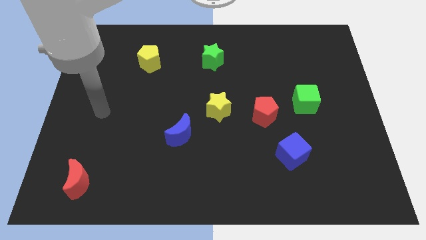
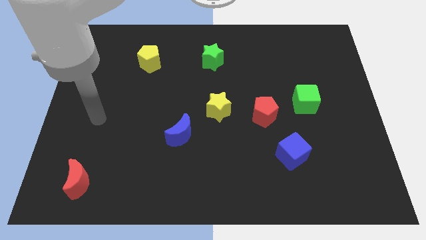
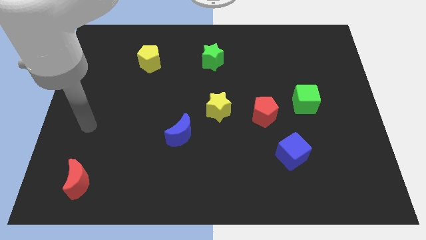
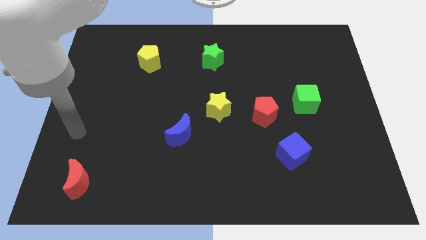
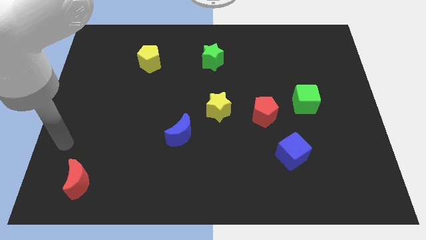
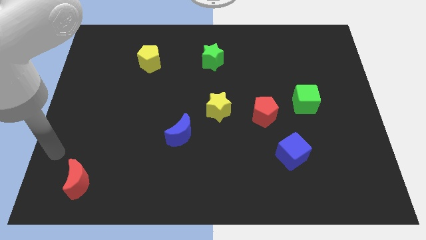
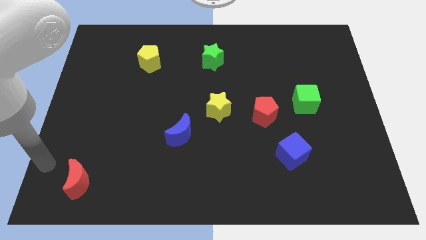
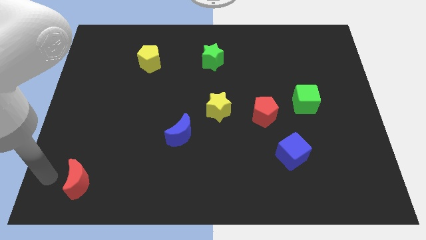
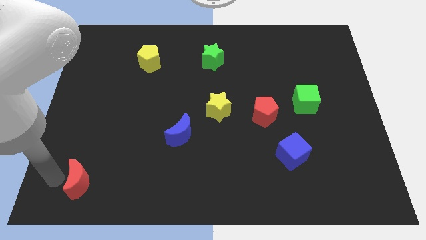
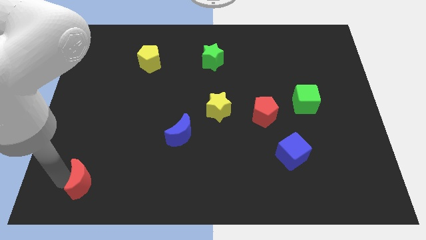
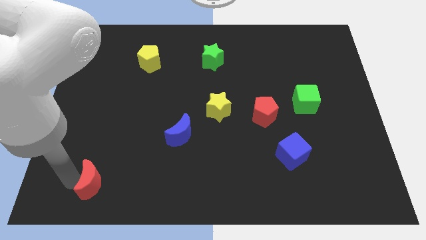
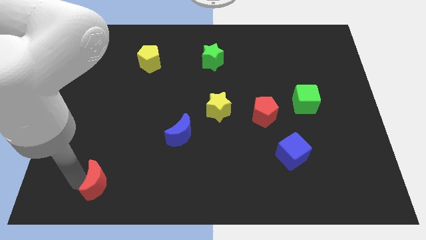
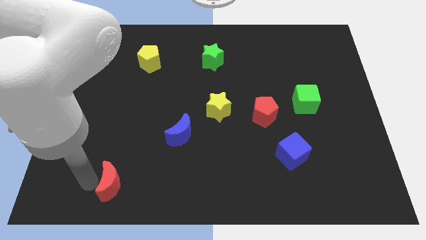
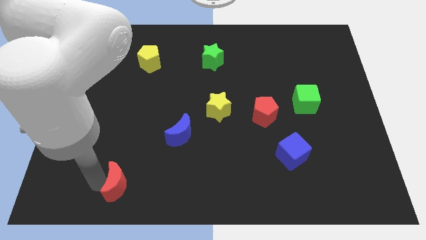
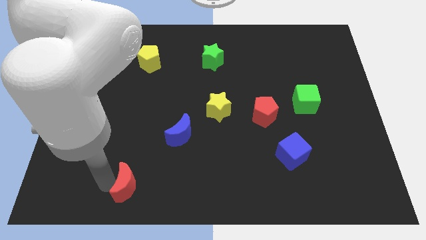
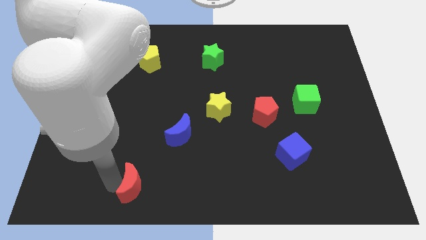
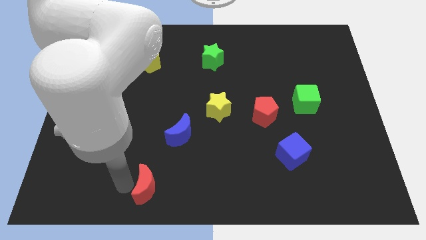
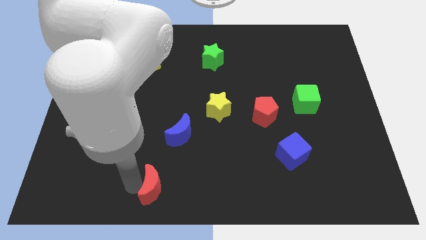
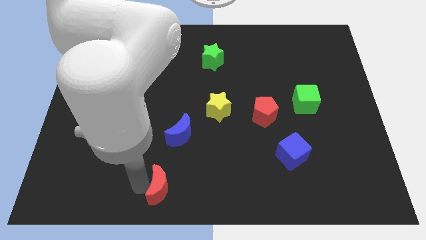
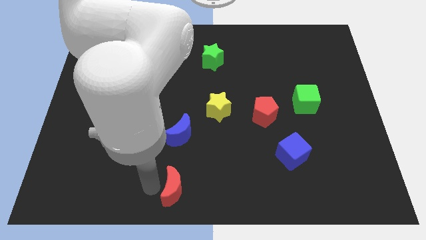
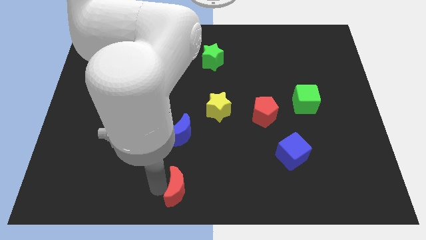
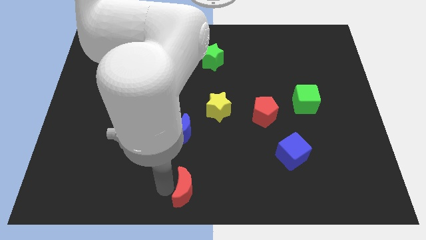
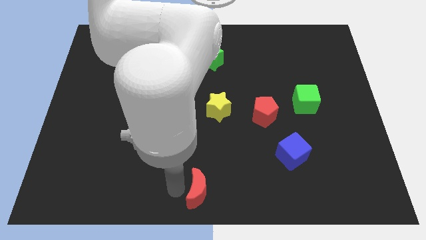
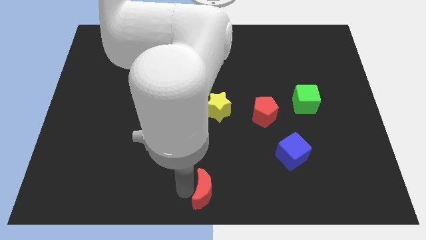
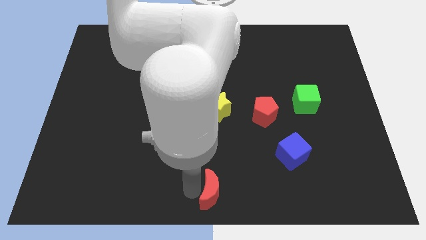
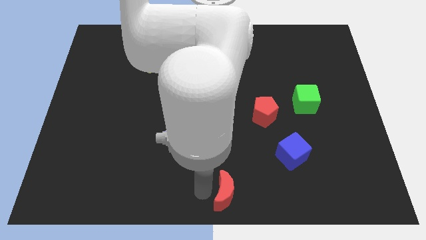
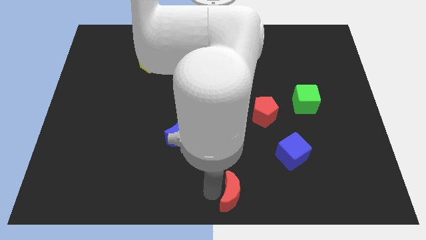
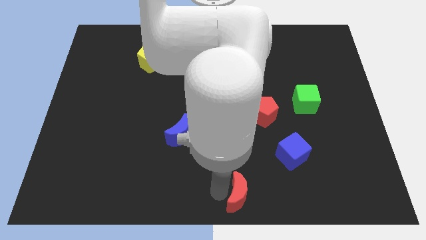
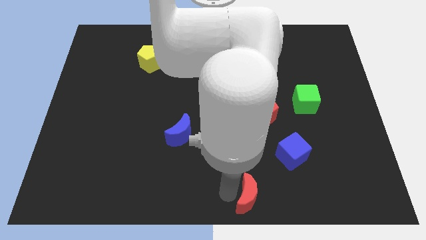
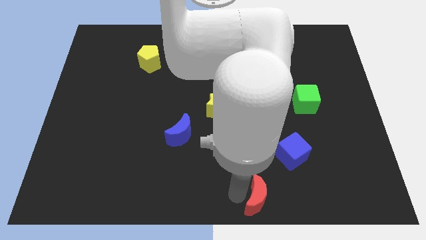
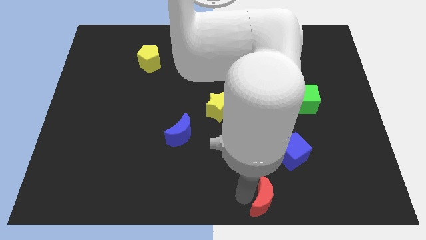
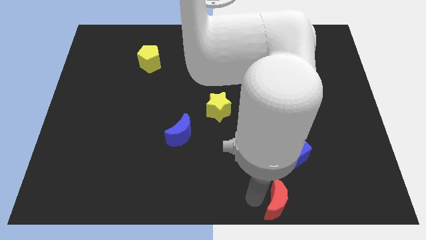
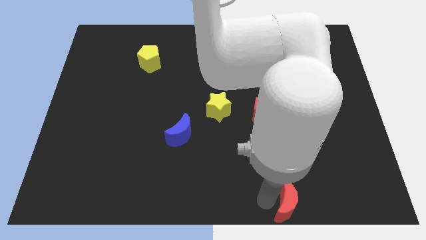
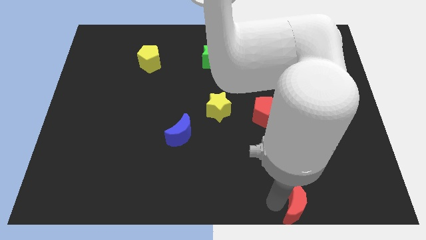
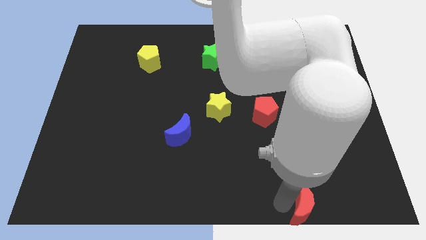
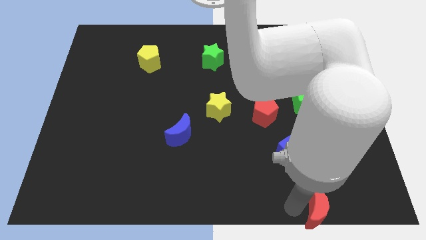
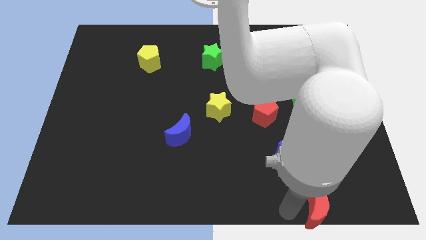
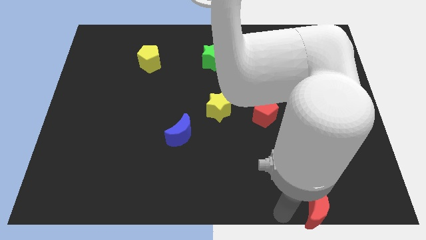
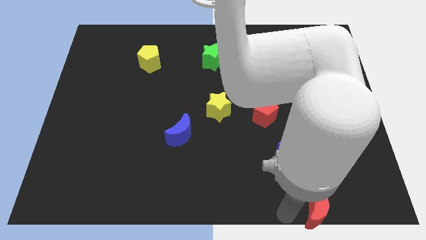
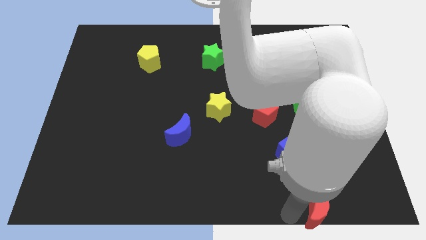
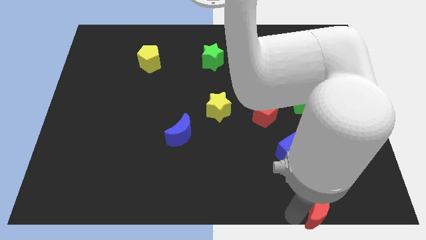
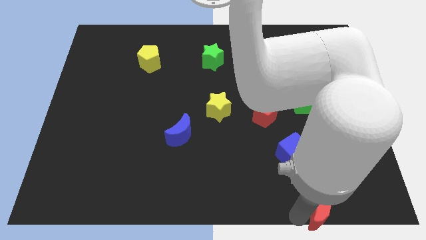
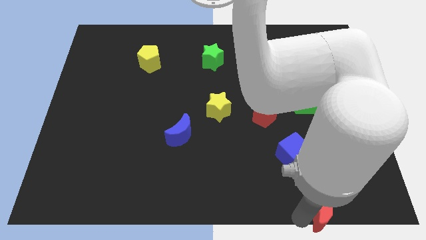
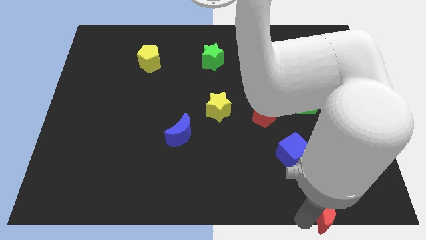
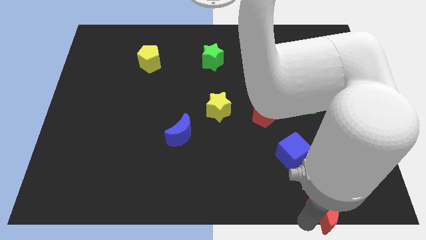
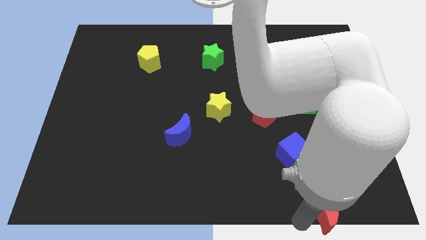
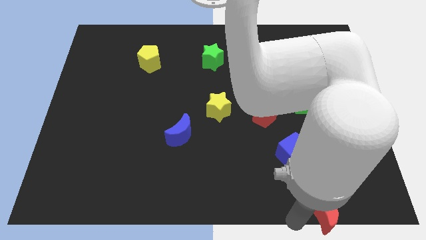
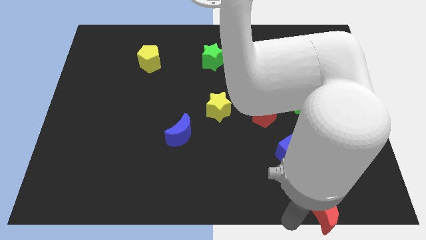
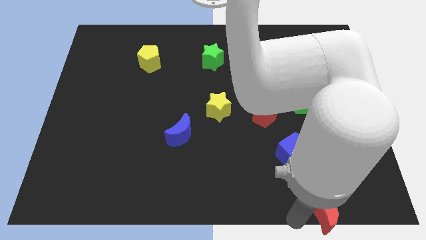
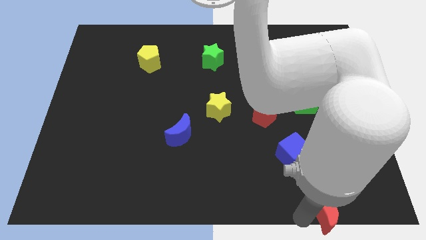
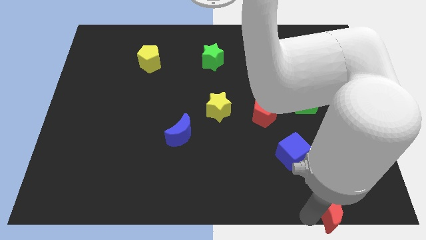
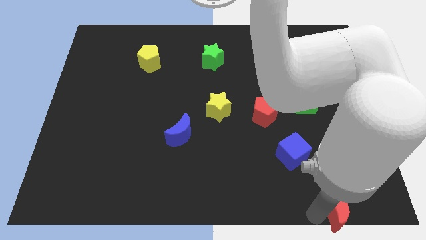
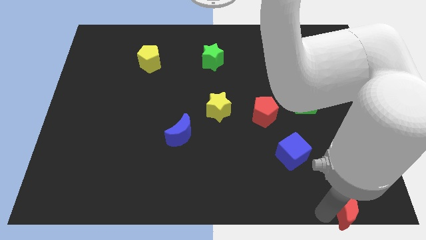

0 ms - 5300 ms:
slide the red moon to the bottom right
